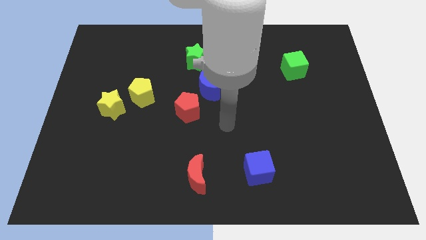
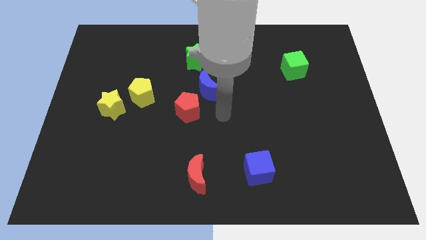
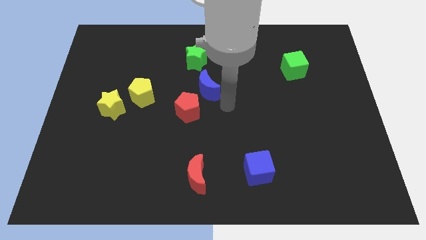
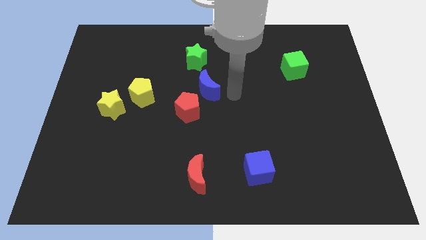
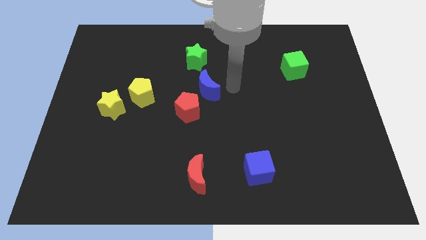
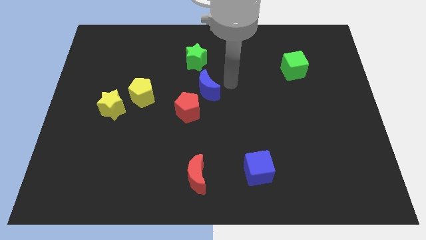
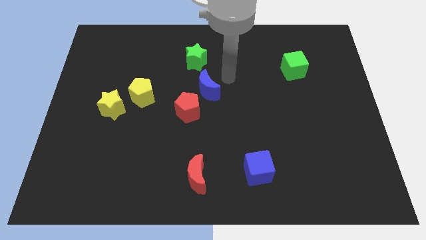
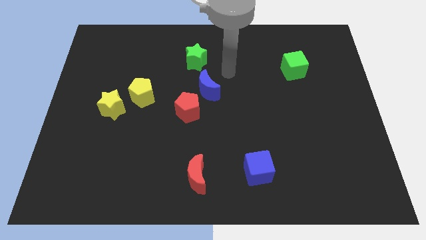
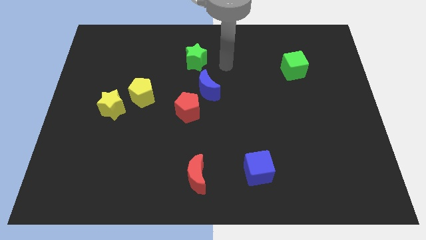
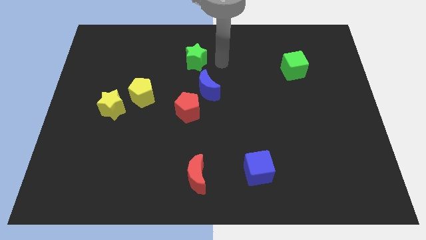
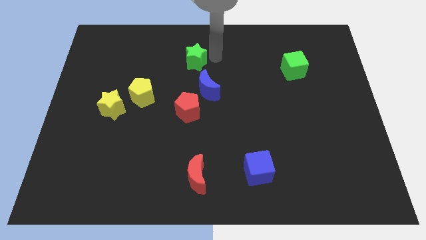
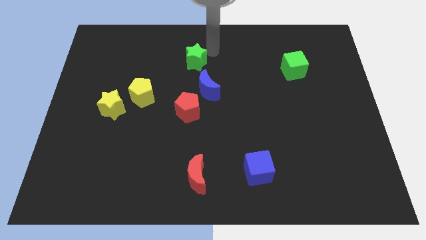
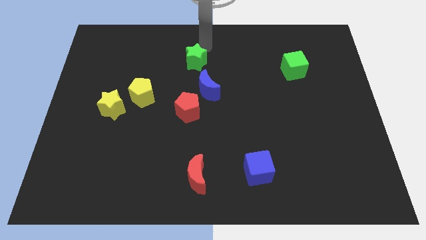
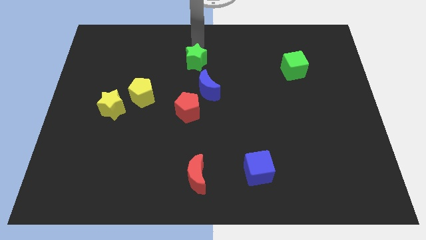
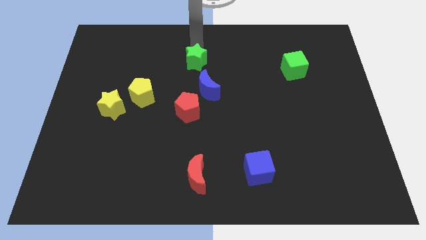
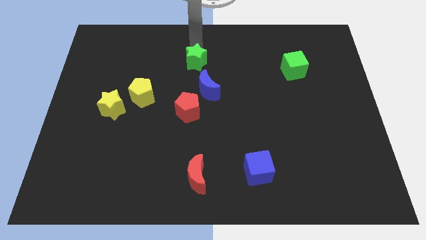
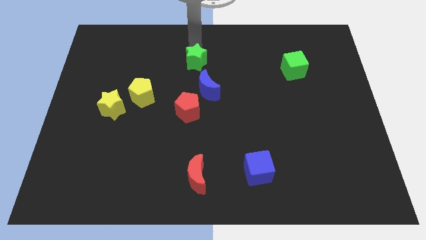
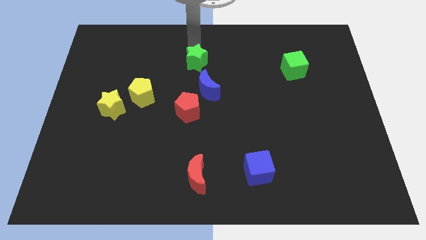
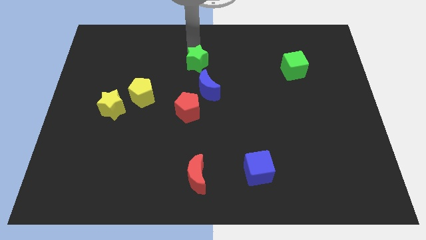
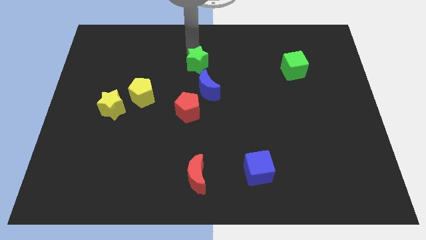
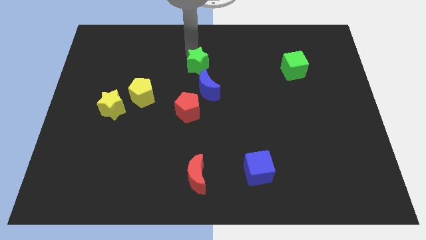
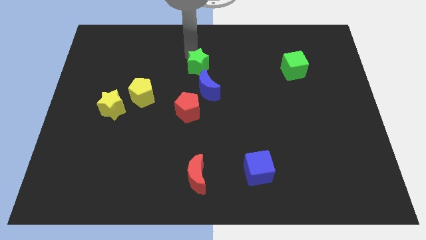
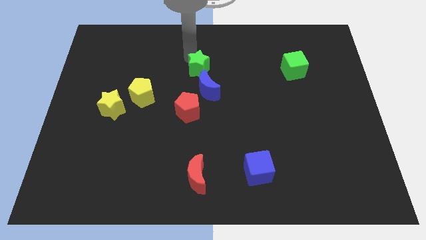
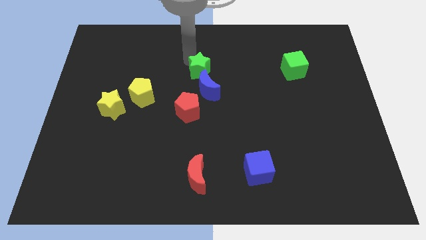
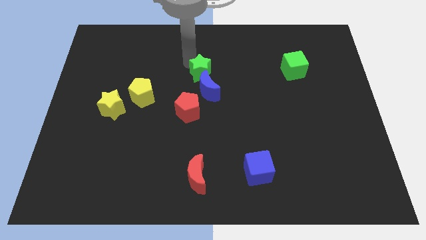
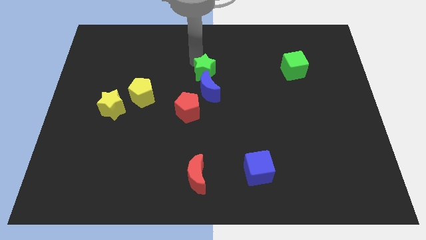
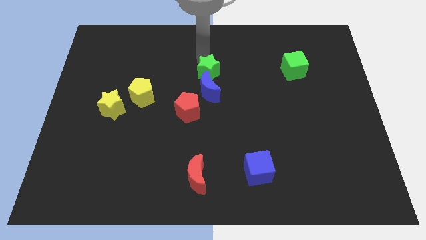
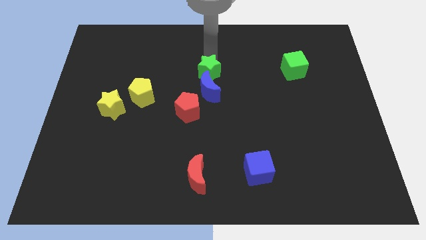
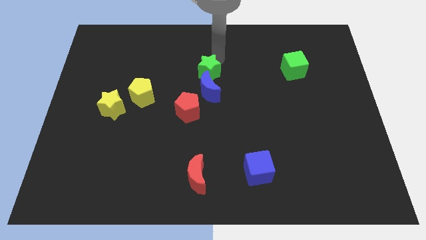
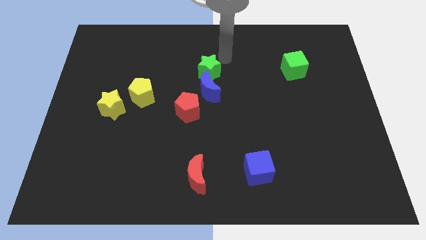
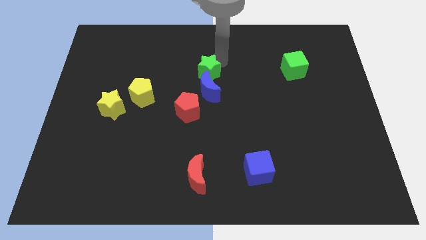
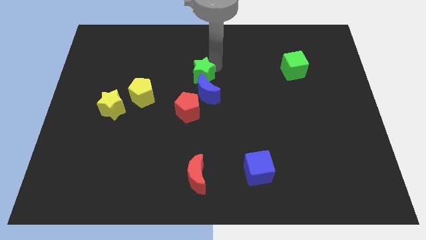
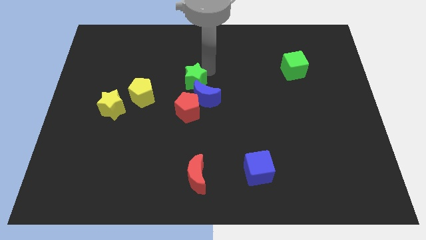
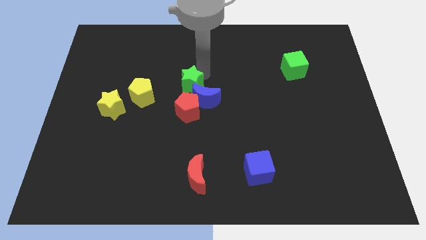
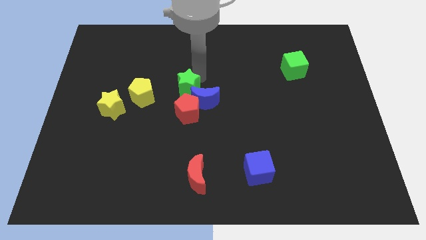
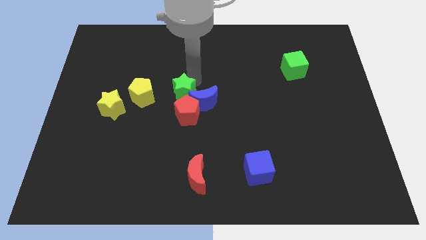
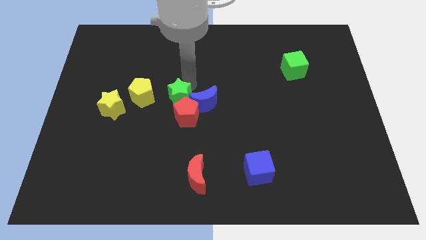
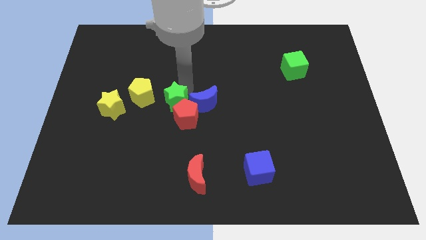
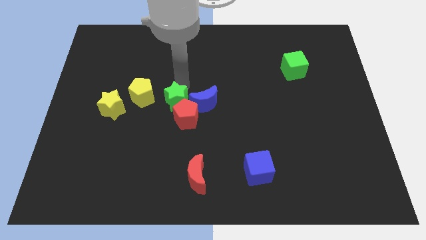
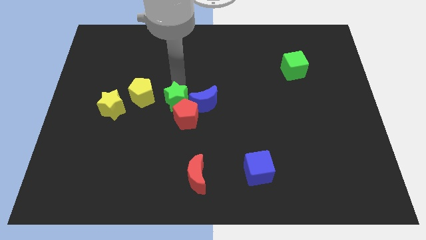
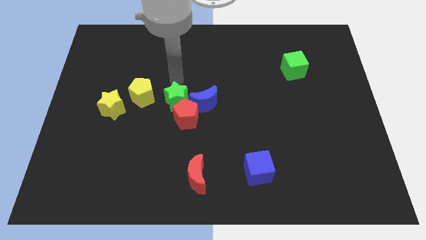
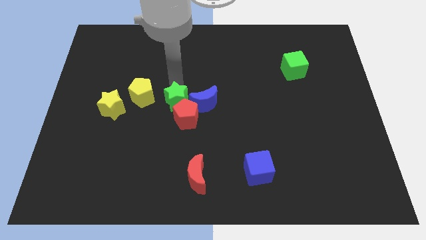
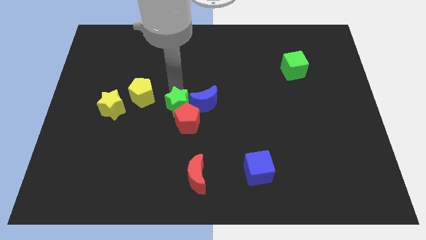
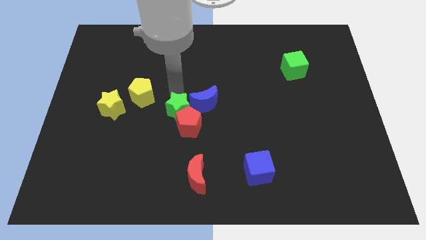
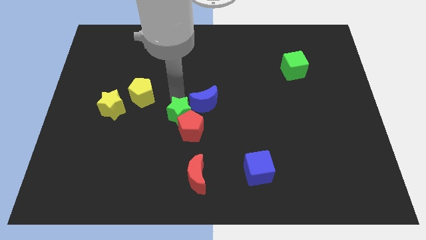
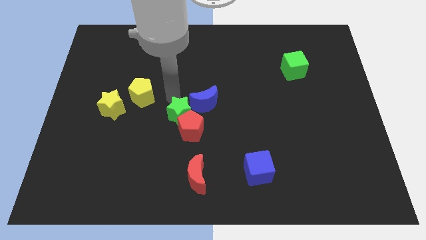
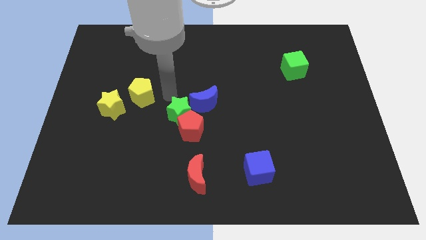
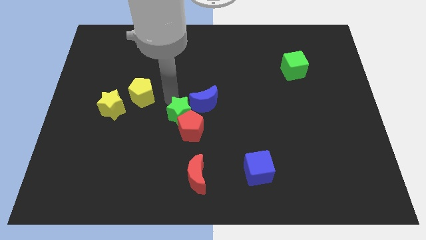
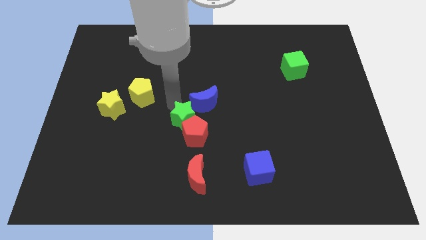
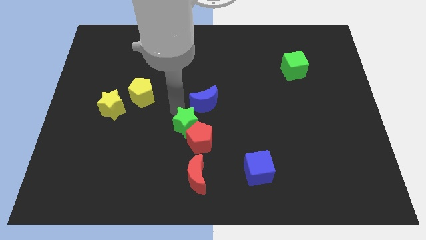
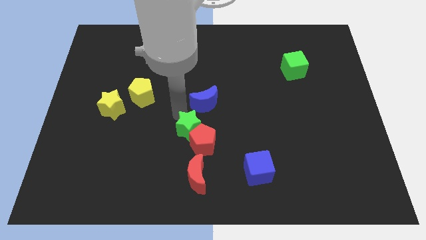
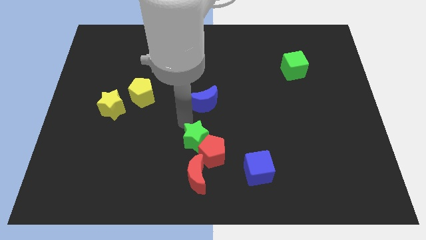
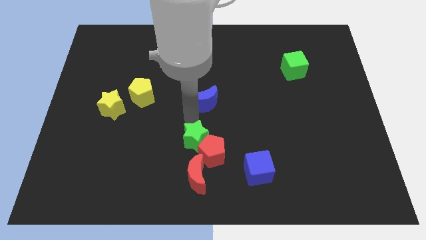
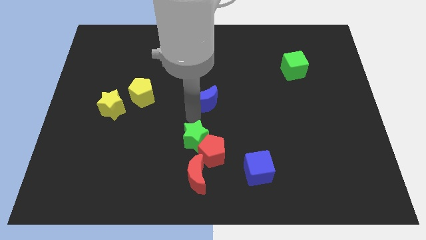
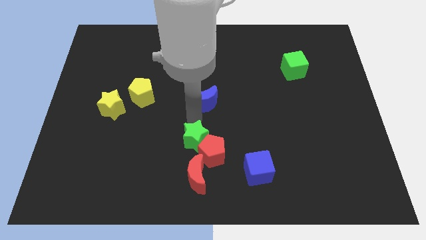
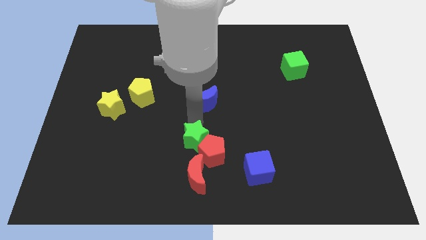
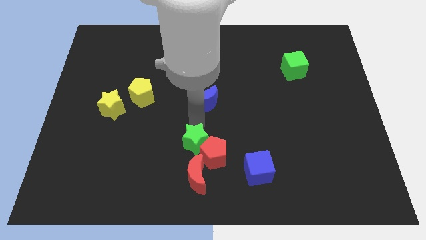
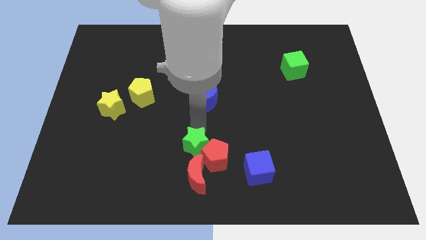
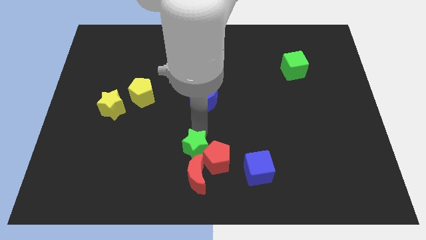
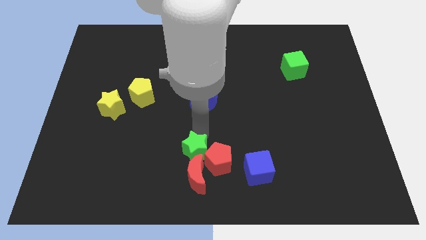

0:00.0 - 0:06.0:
put the green star towards the red moon
